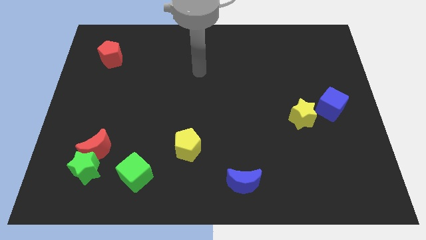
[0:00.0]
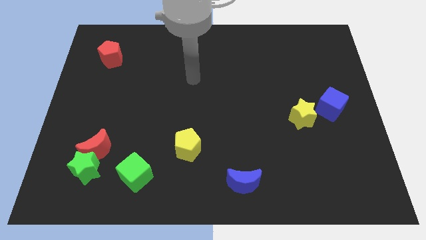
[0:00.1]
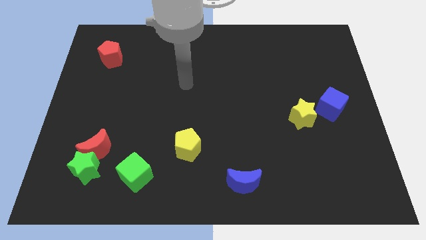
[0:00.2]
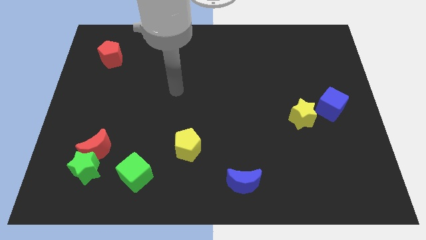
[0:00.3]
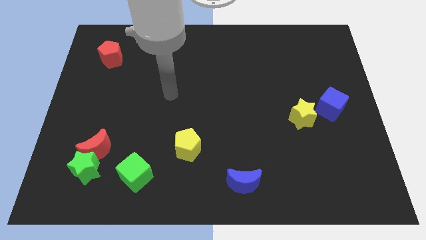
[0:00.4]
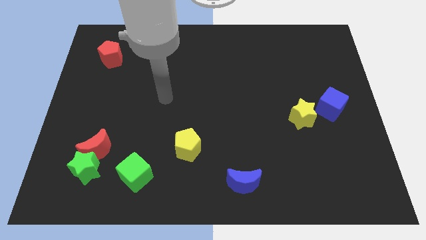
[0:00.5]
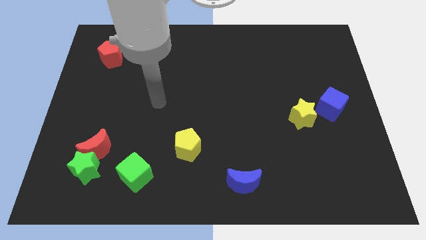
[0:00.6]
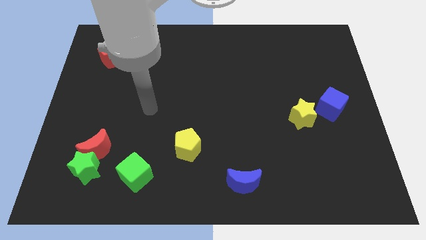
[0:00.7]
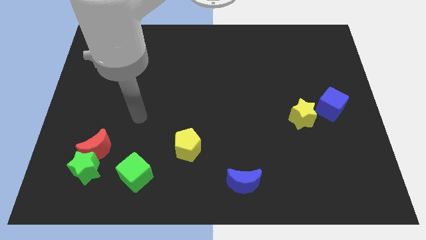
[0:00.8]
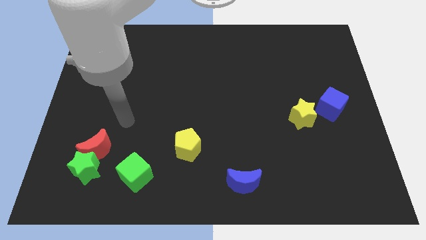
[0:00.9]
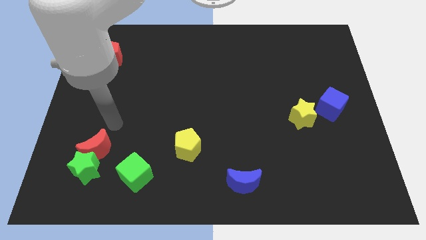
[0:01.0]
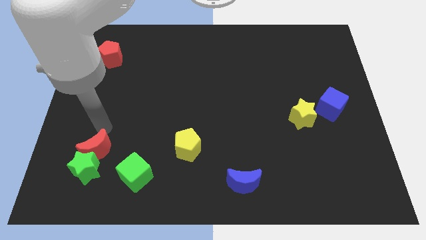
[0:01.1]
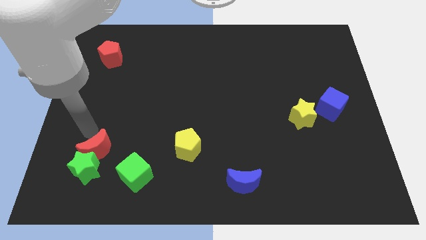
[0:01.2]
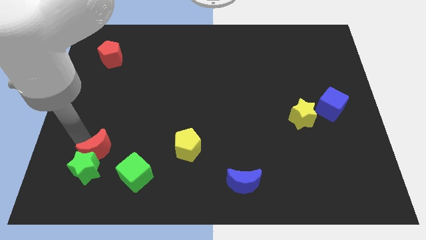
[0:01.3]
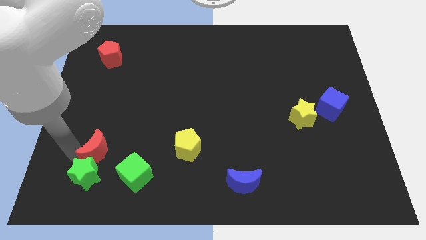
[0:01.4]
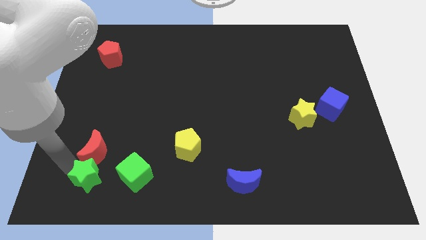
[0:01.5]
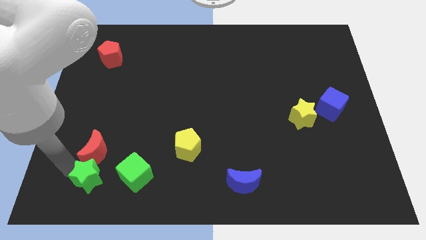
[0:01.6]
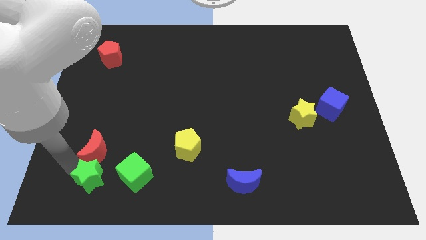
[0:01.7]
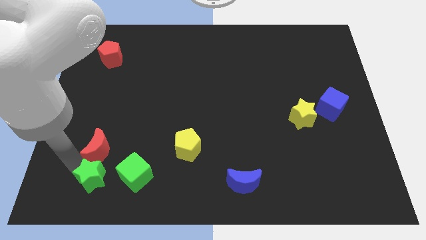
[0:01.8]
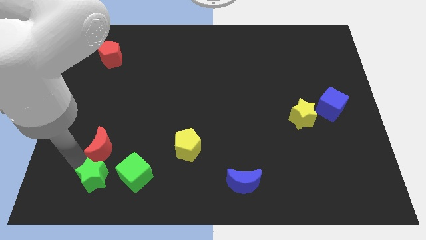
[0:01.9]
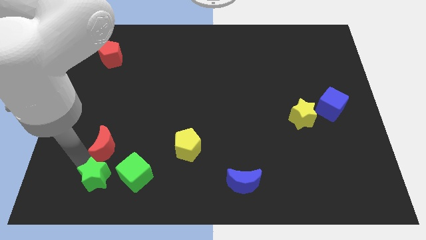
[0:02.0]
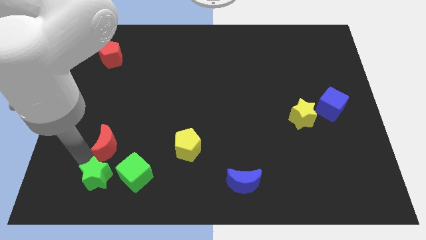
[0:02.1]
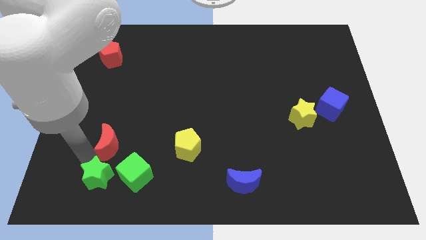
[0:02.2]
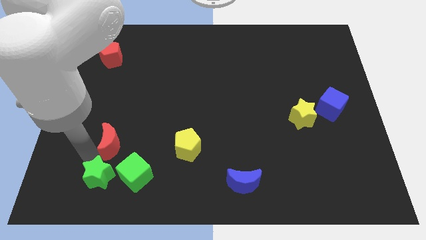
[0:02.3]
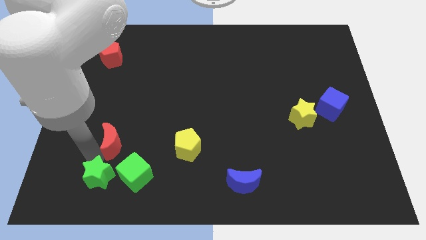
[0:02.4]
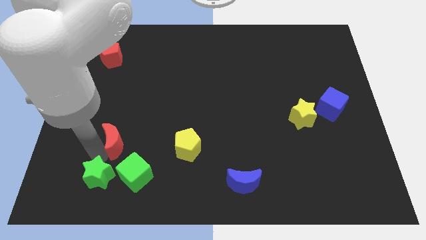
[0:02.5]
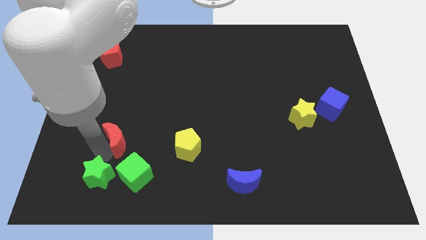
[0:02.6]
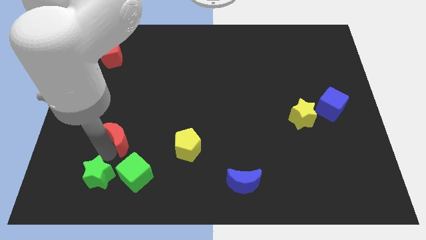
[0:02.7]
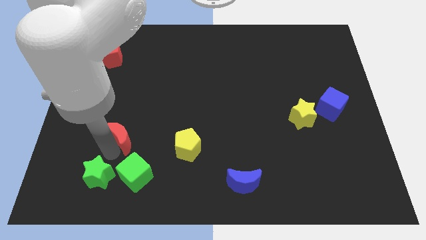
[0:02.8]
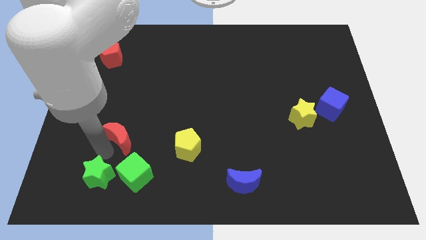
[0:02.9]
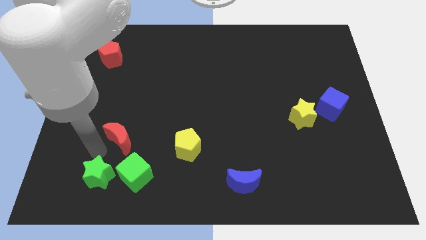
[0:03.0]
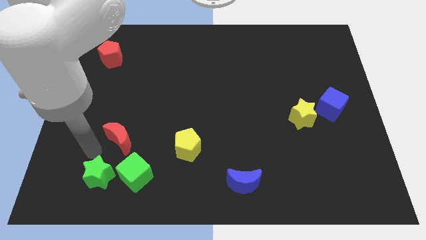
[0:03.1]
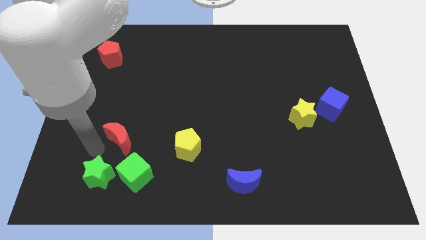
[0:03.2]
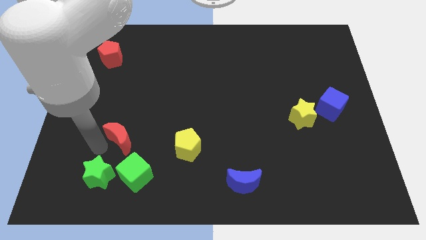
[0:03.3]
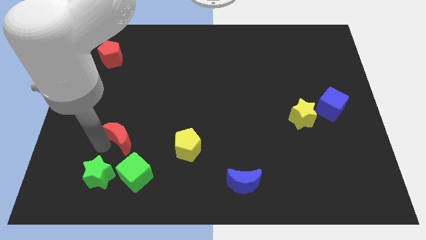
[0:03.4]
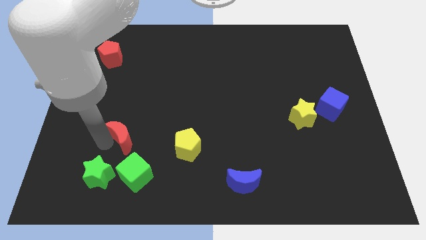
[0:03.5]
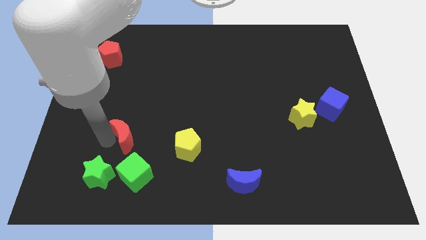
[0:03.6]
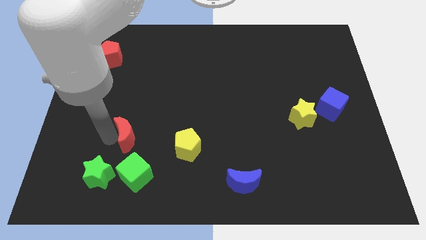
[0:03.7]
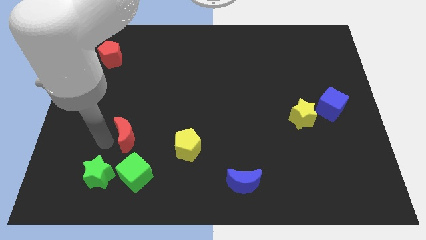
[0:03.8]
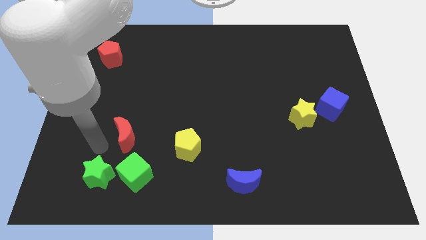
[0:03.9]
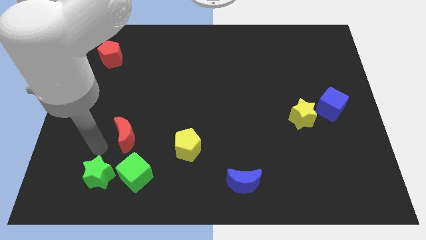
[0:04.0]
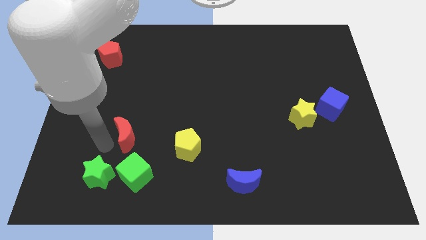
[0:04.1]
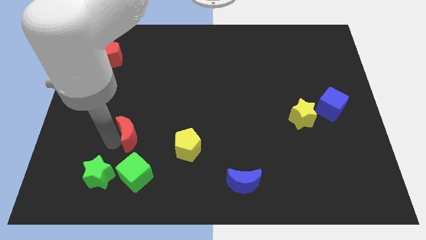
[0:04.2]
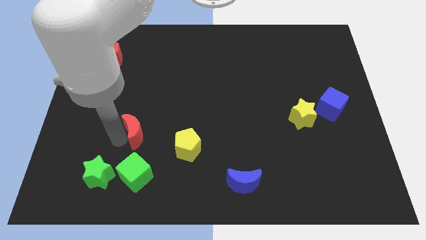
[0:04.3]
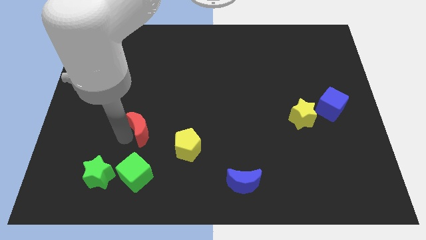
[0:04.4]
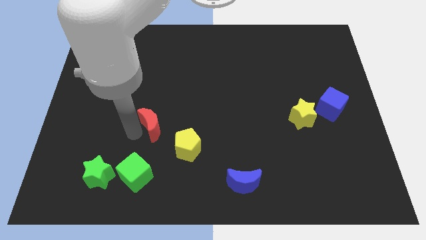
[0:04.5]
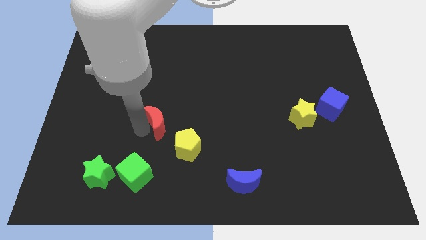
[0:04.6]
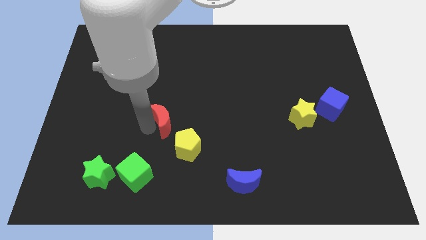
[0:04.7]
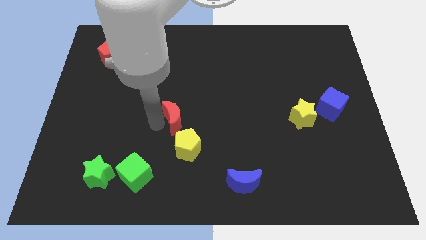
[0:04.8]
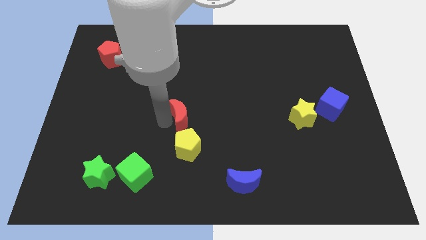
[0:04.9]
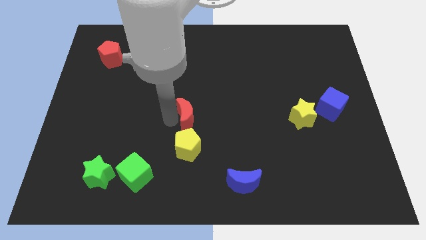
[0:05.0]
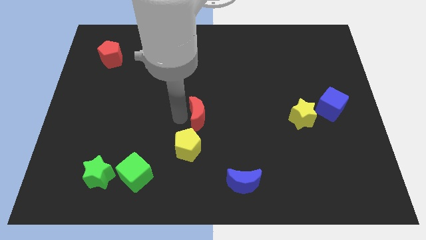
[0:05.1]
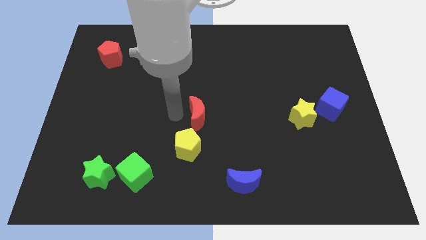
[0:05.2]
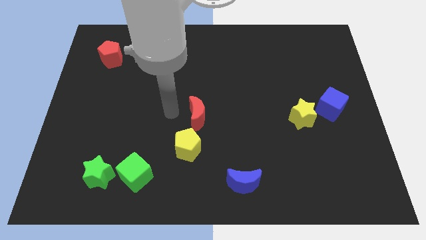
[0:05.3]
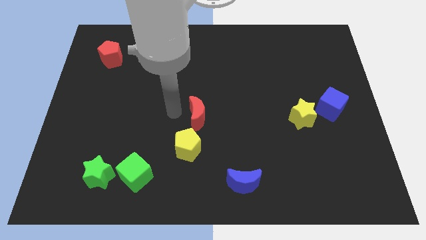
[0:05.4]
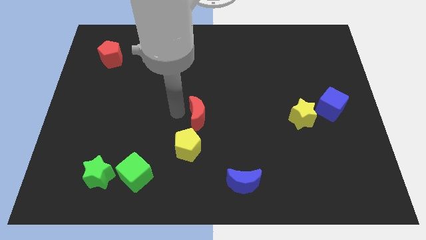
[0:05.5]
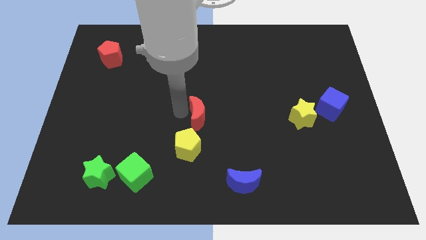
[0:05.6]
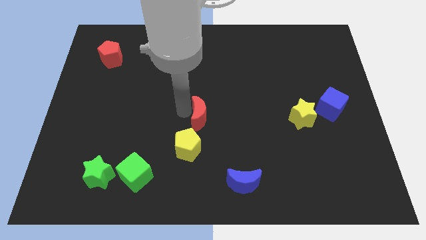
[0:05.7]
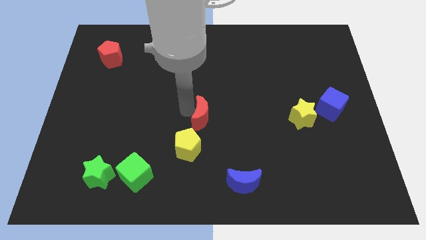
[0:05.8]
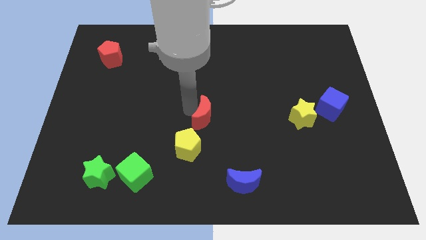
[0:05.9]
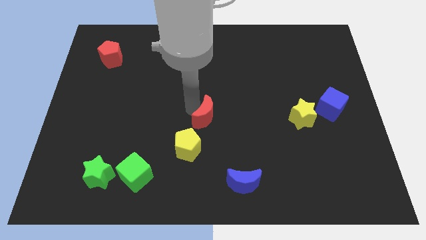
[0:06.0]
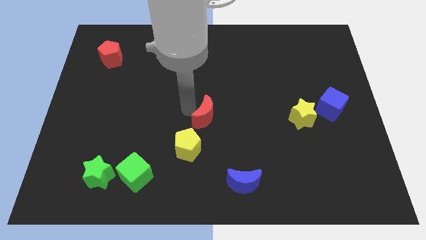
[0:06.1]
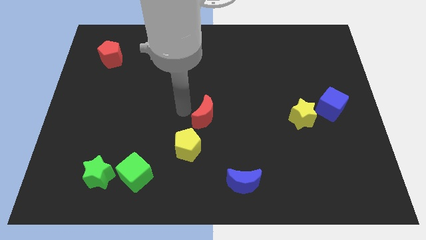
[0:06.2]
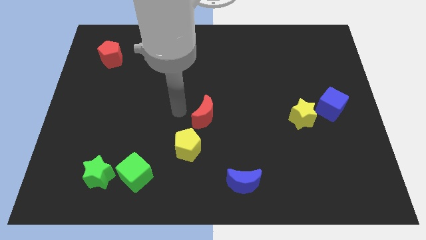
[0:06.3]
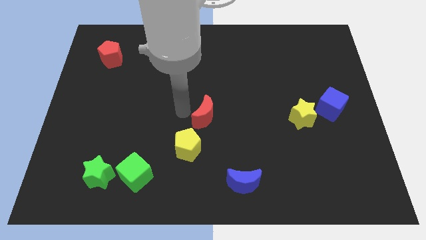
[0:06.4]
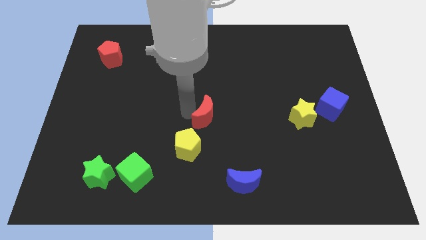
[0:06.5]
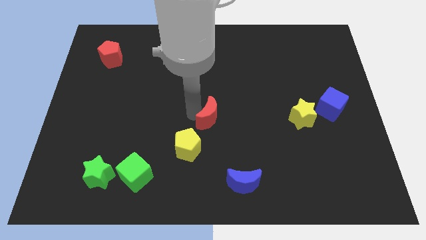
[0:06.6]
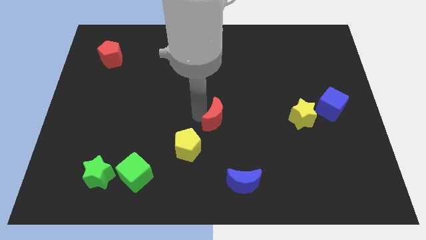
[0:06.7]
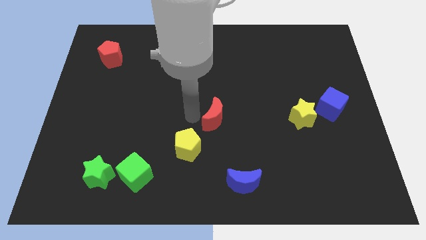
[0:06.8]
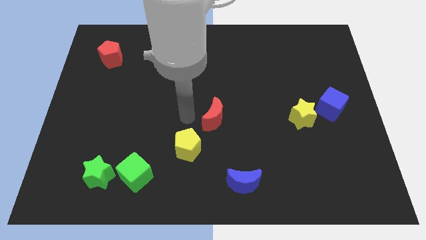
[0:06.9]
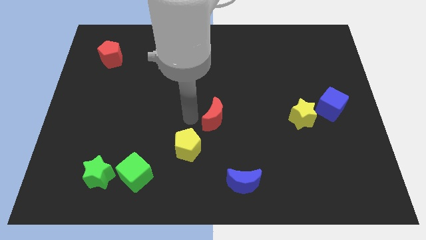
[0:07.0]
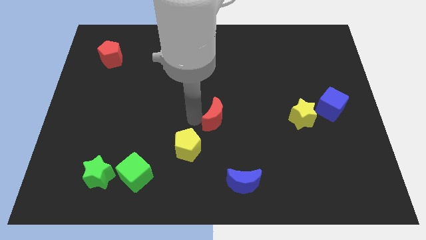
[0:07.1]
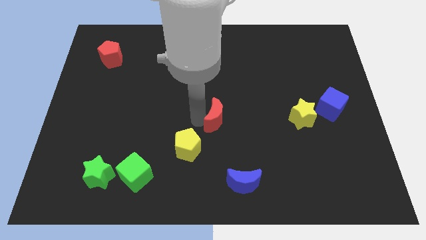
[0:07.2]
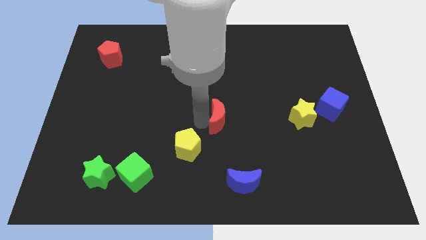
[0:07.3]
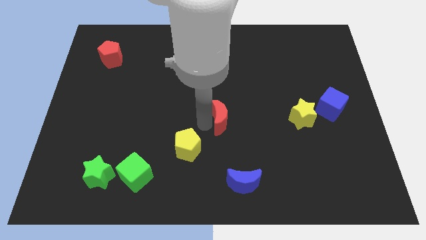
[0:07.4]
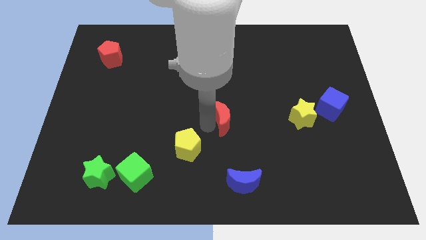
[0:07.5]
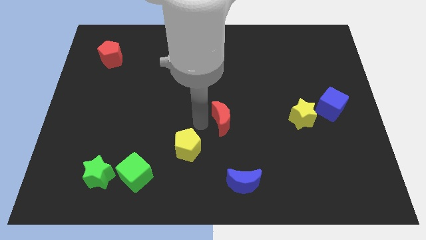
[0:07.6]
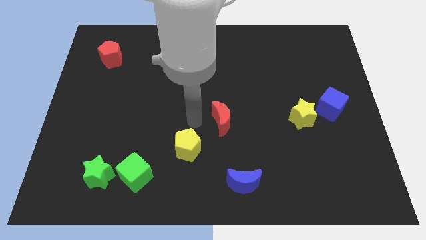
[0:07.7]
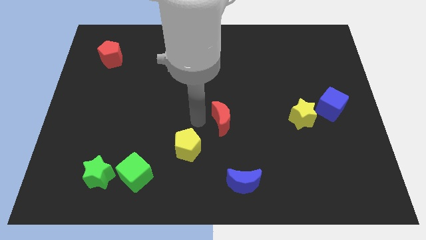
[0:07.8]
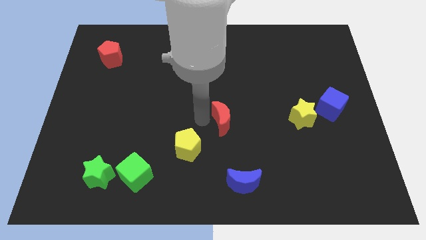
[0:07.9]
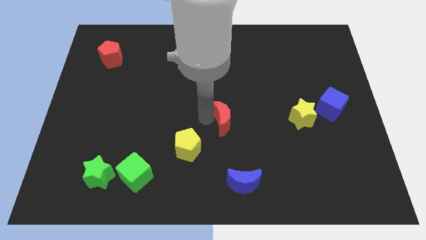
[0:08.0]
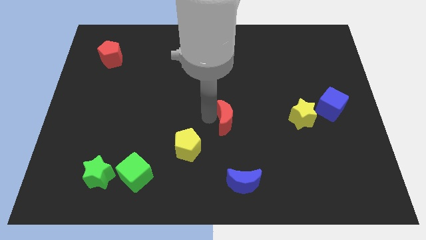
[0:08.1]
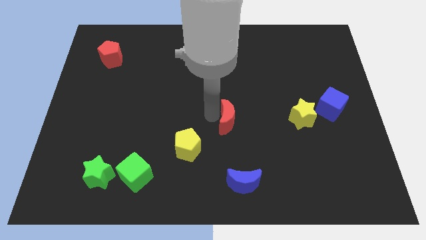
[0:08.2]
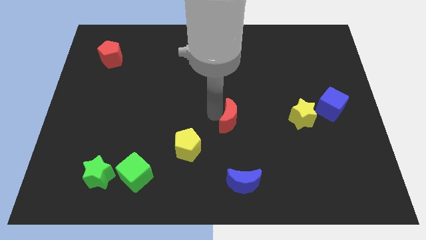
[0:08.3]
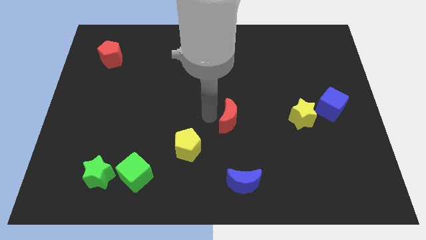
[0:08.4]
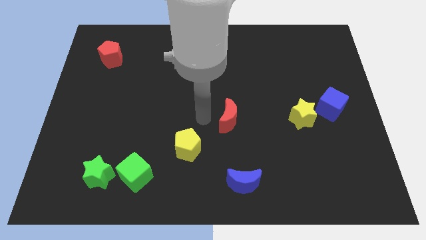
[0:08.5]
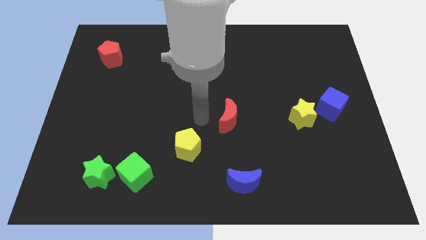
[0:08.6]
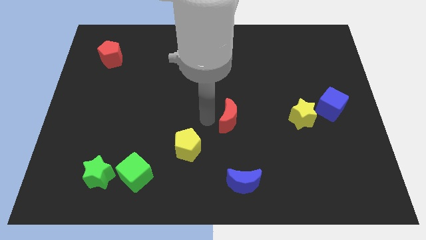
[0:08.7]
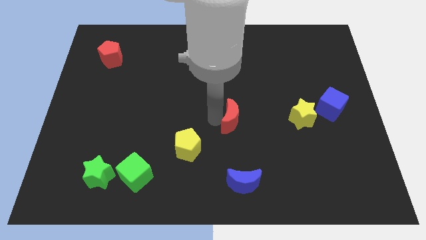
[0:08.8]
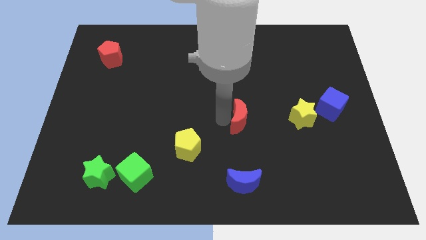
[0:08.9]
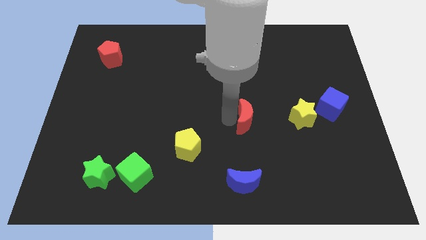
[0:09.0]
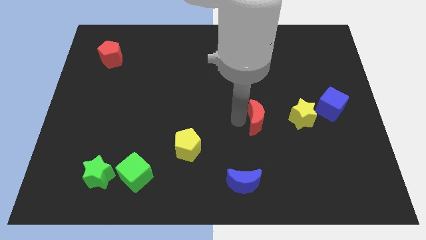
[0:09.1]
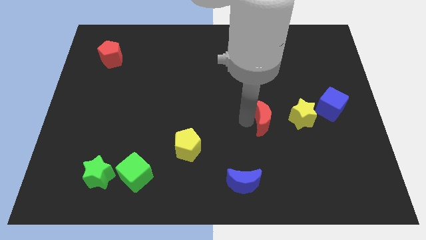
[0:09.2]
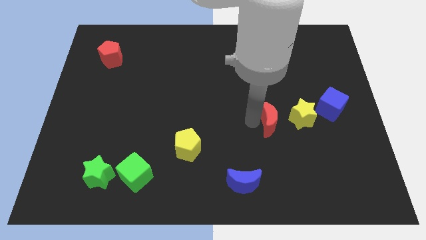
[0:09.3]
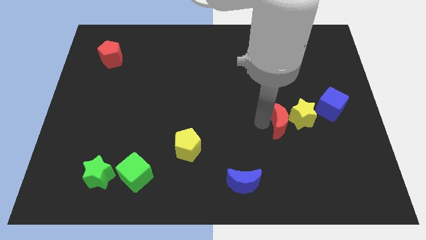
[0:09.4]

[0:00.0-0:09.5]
put the red moon close to the yellow star
